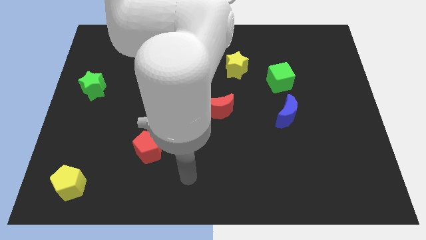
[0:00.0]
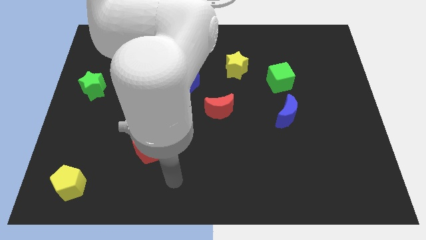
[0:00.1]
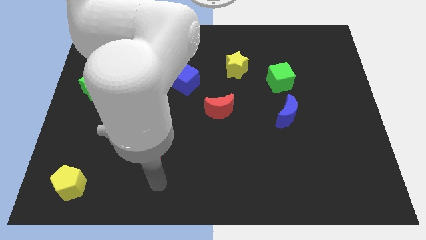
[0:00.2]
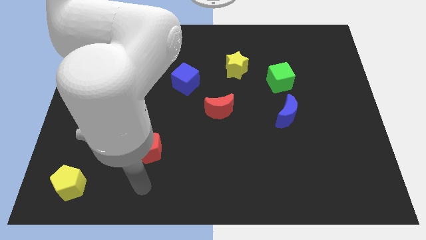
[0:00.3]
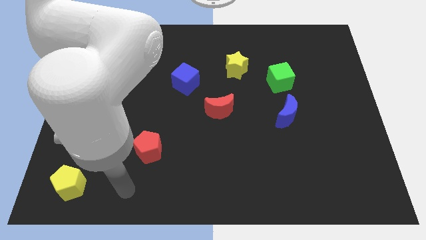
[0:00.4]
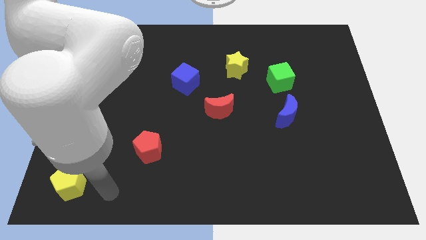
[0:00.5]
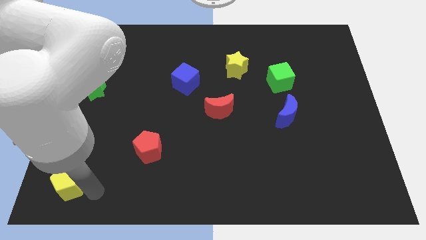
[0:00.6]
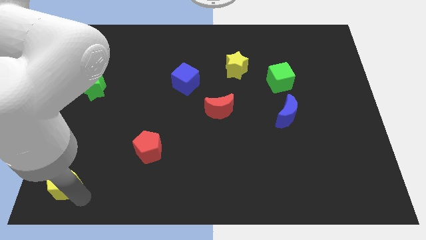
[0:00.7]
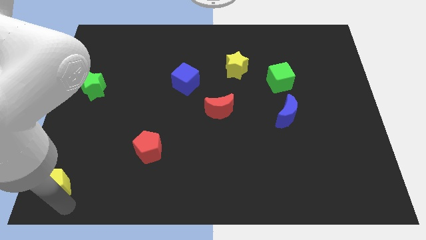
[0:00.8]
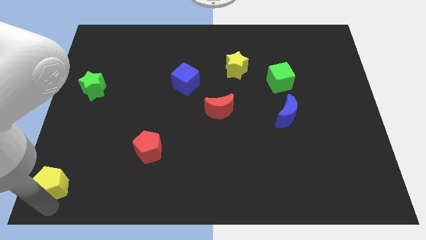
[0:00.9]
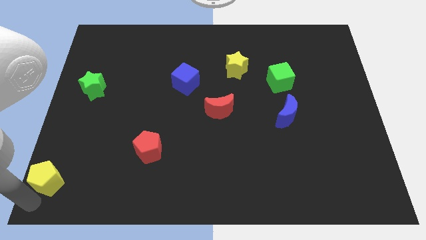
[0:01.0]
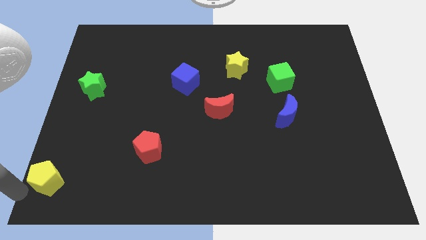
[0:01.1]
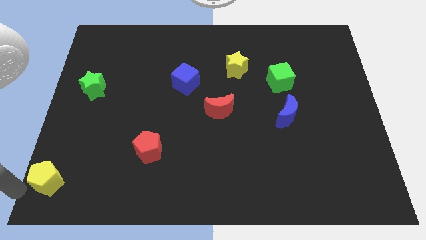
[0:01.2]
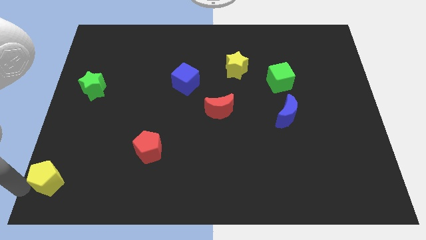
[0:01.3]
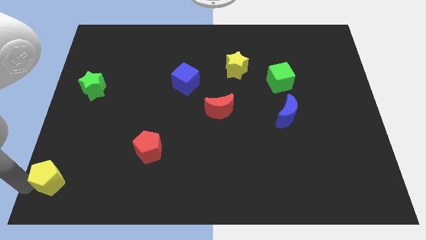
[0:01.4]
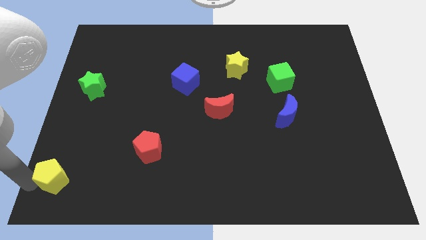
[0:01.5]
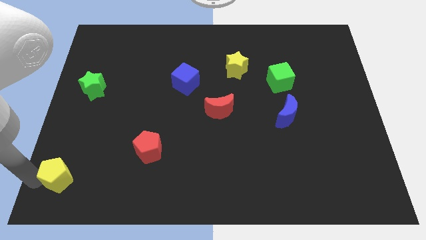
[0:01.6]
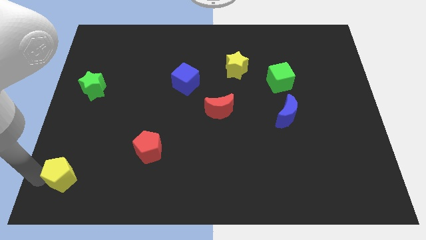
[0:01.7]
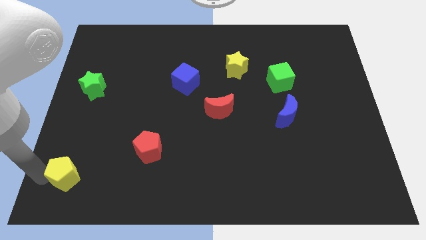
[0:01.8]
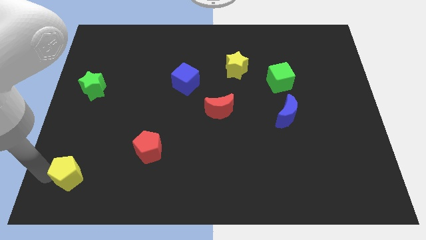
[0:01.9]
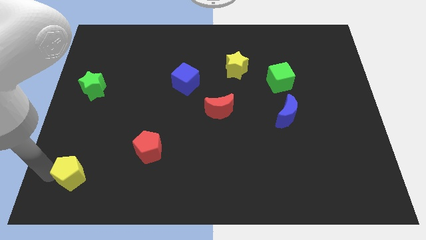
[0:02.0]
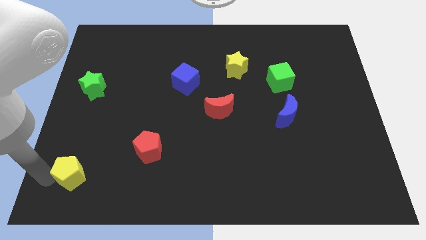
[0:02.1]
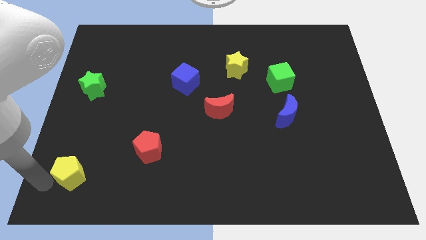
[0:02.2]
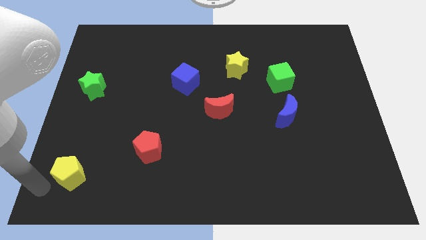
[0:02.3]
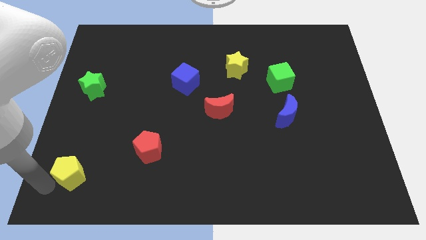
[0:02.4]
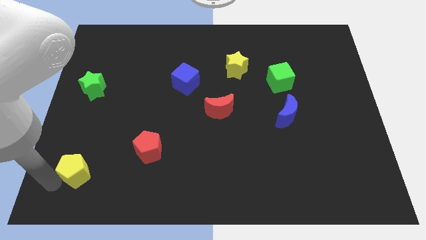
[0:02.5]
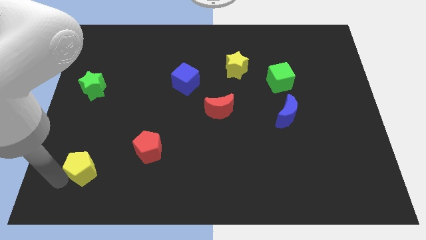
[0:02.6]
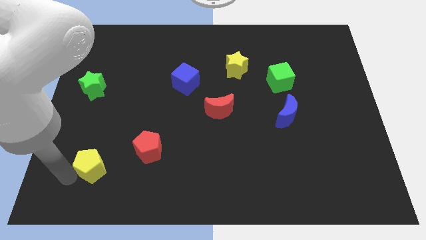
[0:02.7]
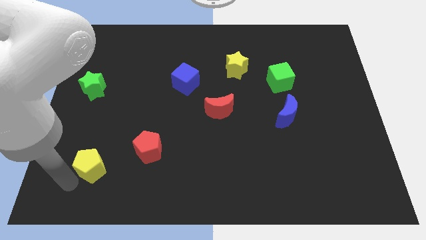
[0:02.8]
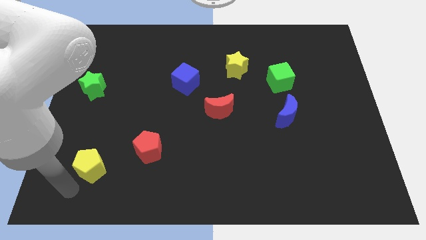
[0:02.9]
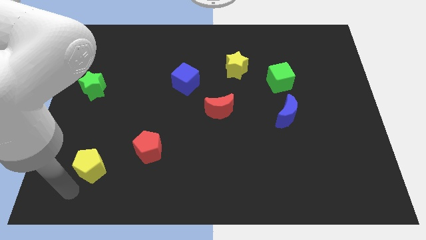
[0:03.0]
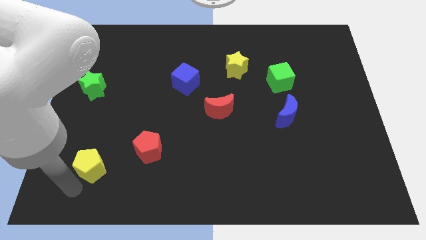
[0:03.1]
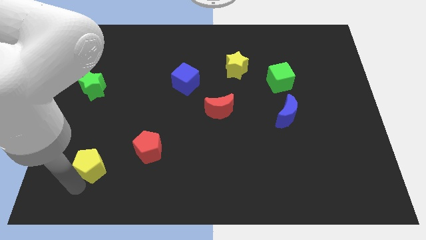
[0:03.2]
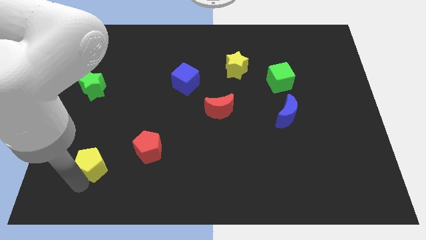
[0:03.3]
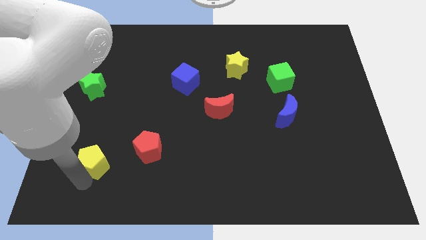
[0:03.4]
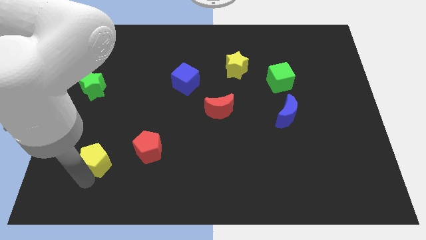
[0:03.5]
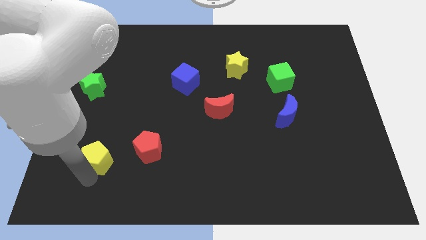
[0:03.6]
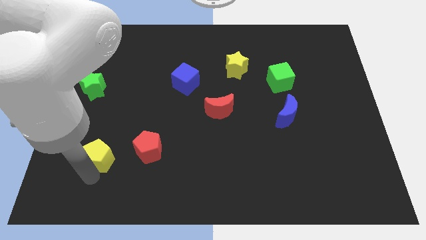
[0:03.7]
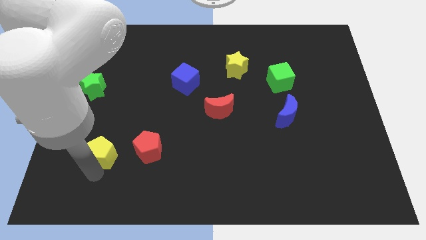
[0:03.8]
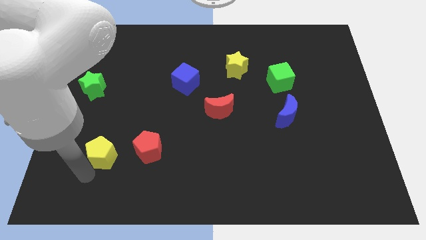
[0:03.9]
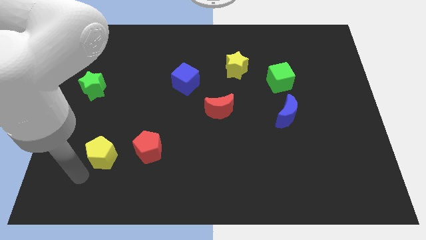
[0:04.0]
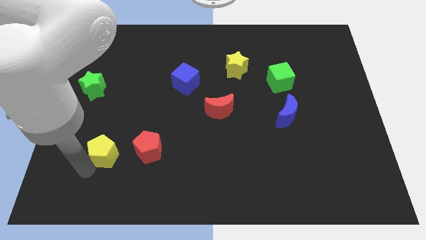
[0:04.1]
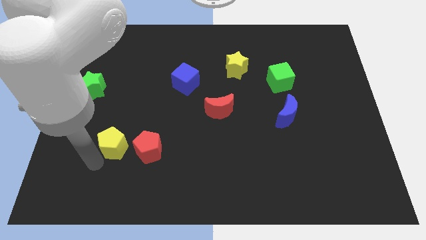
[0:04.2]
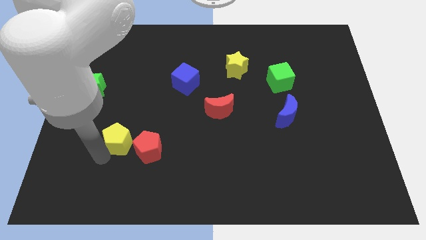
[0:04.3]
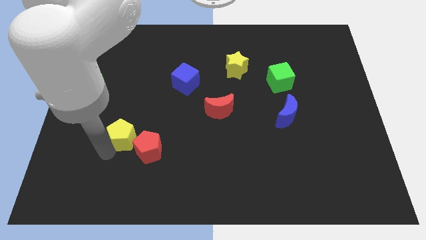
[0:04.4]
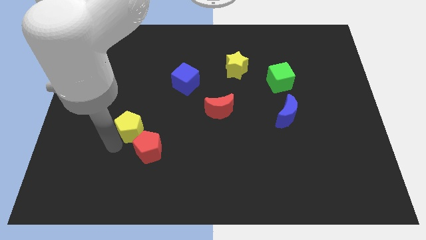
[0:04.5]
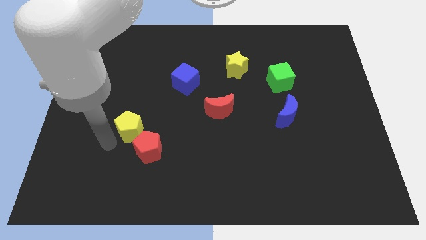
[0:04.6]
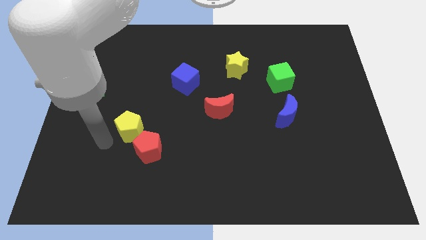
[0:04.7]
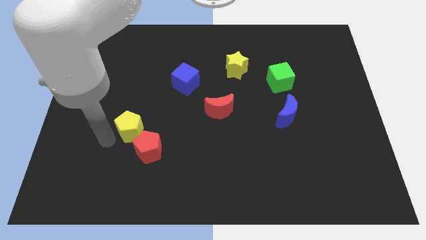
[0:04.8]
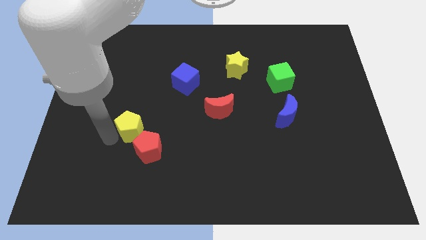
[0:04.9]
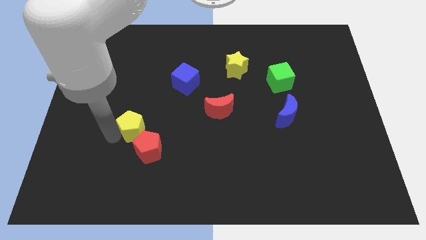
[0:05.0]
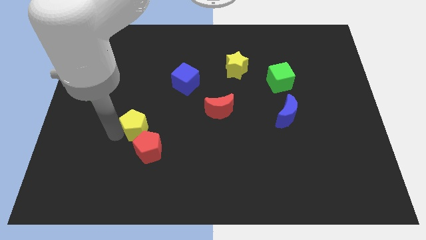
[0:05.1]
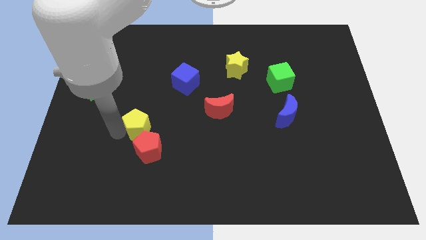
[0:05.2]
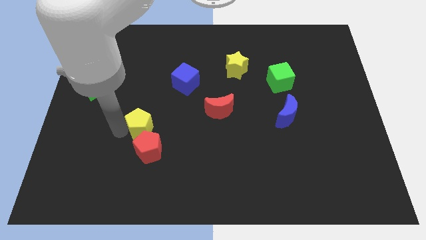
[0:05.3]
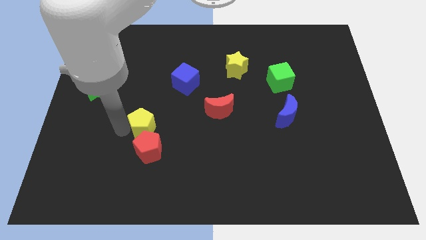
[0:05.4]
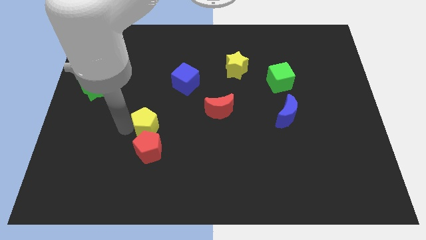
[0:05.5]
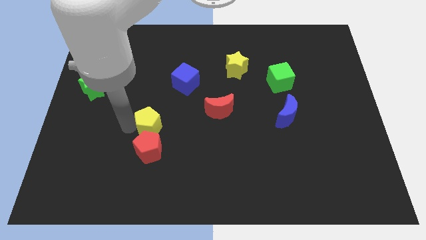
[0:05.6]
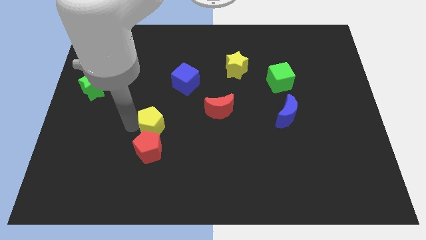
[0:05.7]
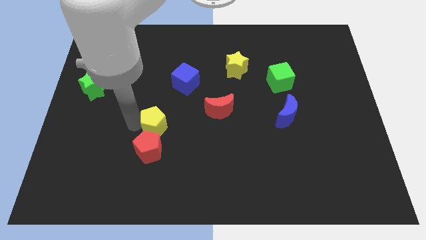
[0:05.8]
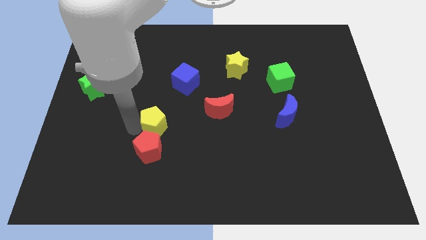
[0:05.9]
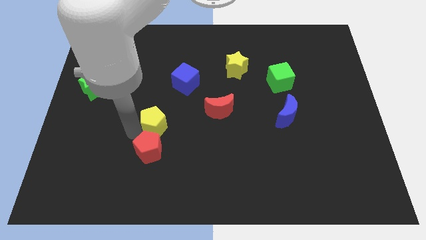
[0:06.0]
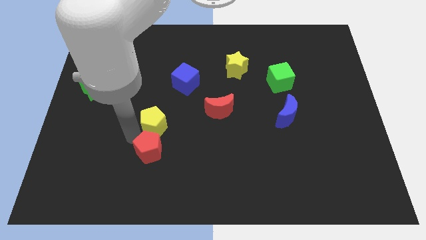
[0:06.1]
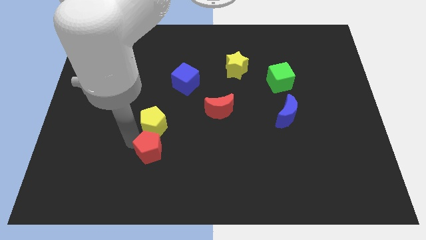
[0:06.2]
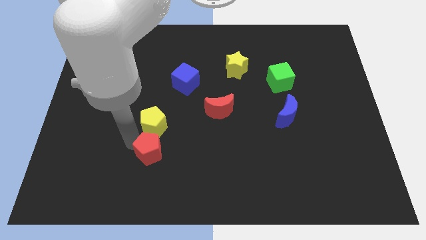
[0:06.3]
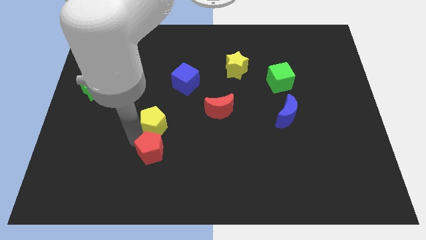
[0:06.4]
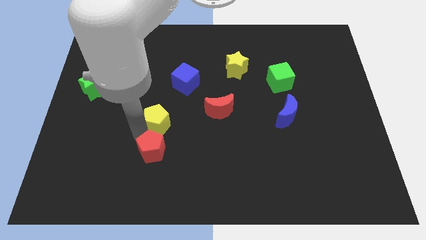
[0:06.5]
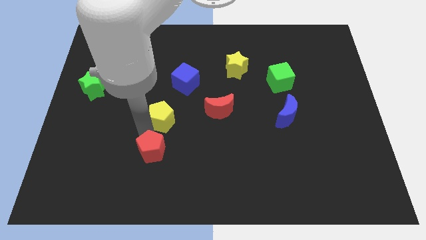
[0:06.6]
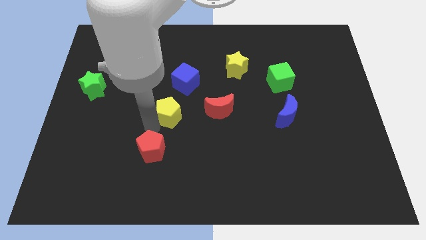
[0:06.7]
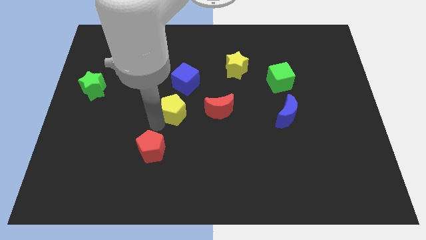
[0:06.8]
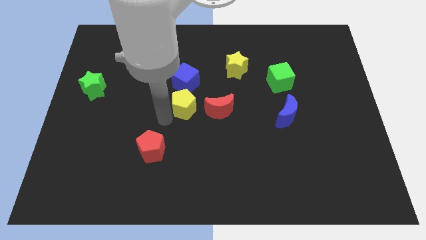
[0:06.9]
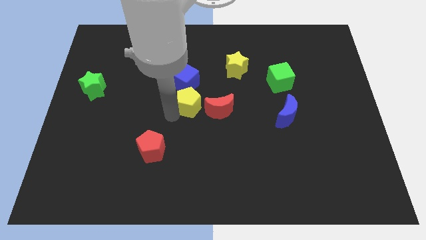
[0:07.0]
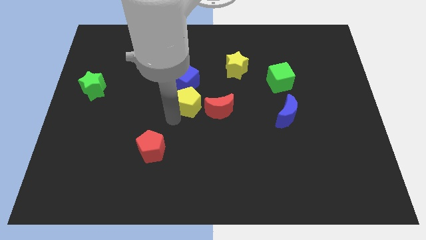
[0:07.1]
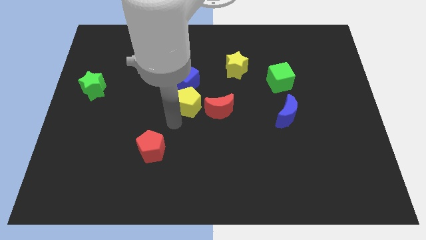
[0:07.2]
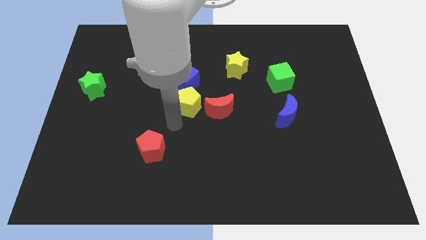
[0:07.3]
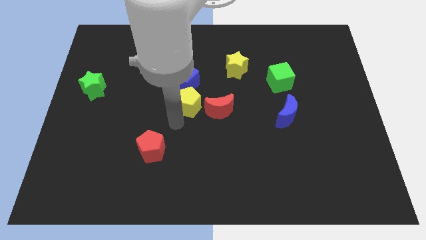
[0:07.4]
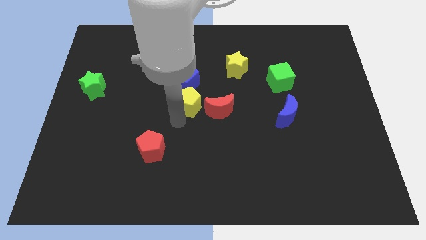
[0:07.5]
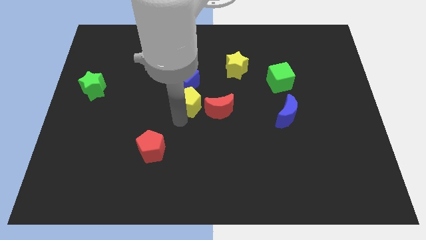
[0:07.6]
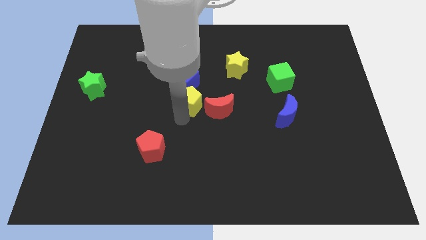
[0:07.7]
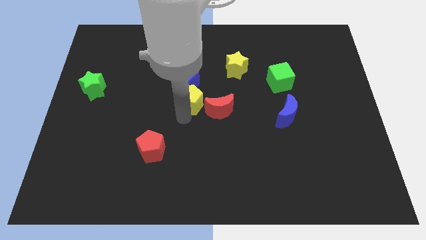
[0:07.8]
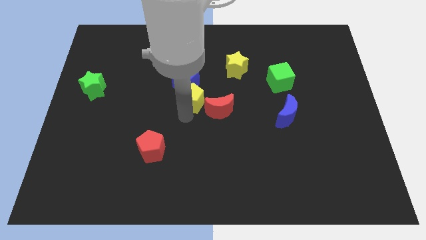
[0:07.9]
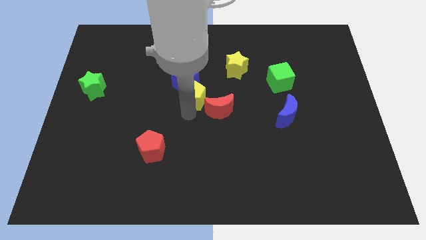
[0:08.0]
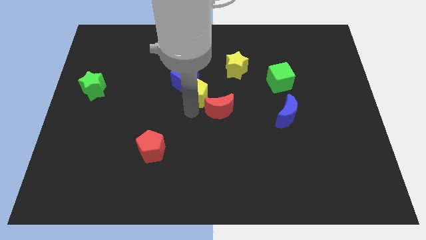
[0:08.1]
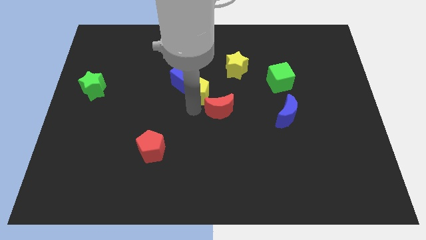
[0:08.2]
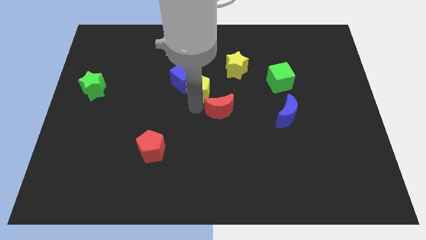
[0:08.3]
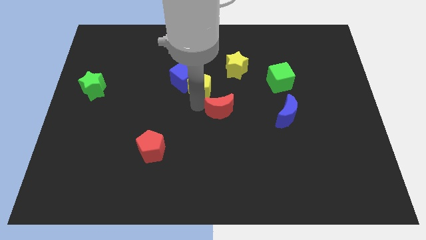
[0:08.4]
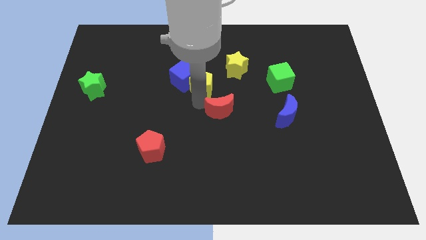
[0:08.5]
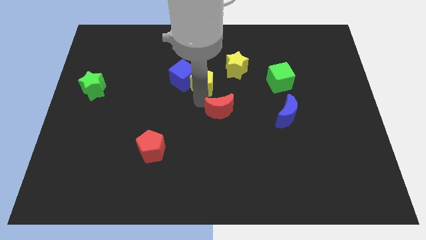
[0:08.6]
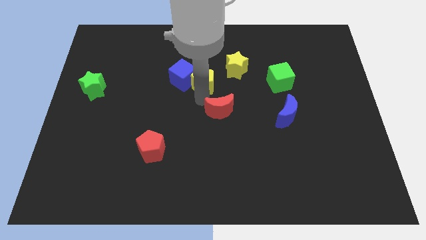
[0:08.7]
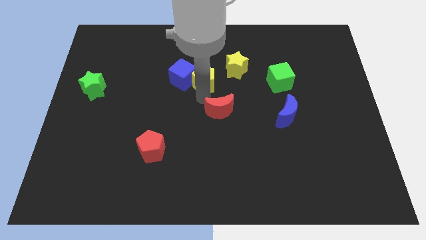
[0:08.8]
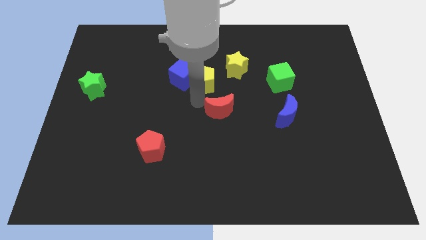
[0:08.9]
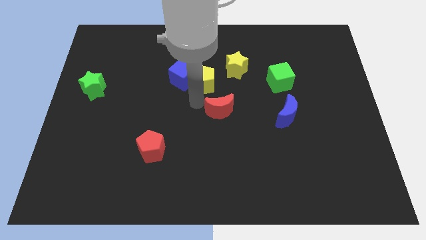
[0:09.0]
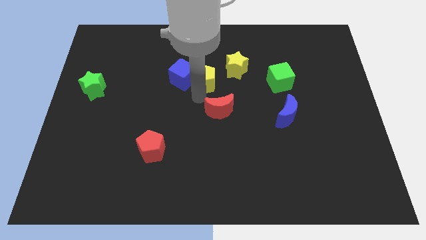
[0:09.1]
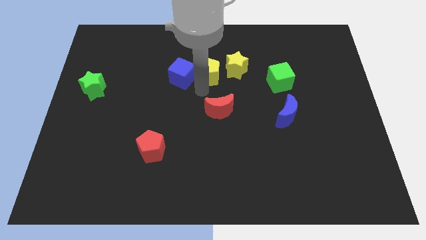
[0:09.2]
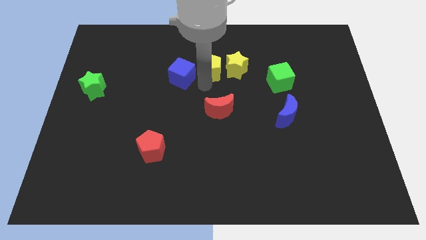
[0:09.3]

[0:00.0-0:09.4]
move the yellow pentagon diagonally up and to the left of the yellow star
